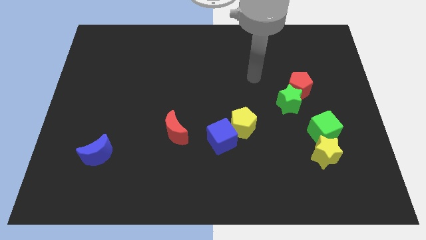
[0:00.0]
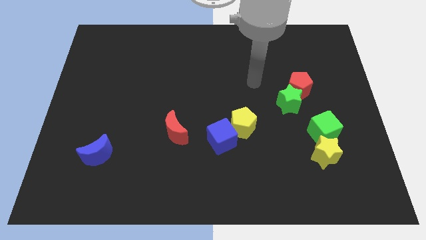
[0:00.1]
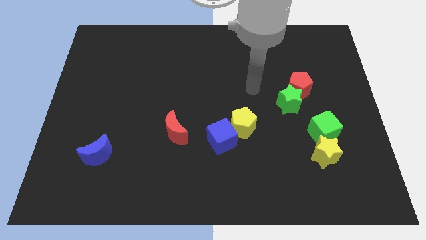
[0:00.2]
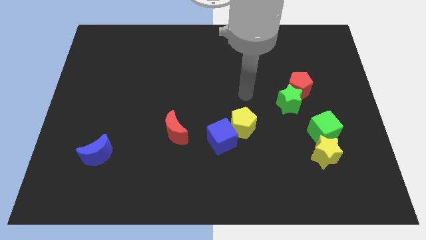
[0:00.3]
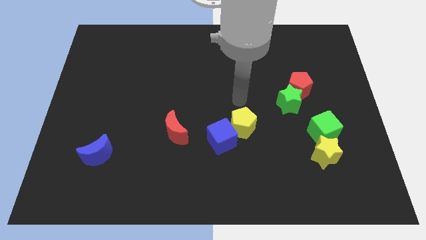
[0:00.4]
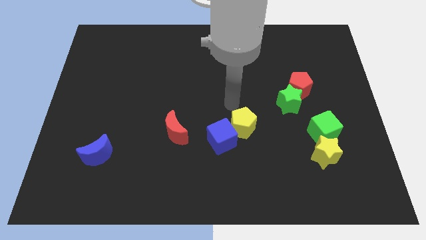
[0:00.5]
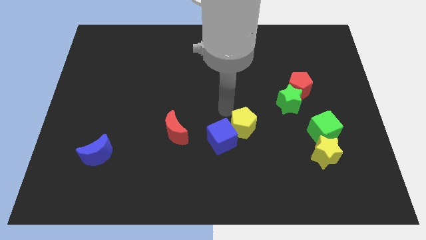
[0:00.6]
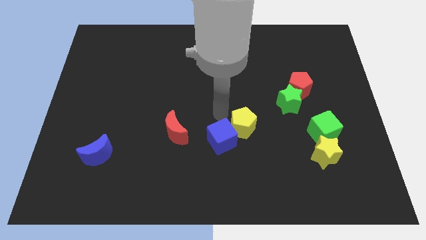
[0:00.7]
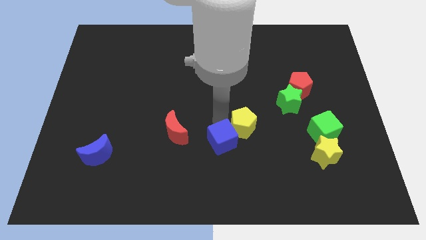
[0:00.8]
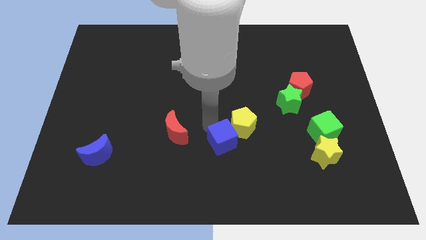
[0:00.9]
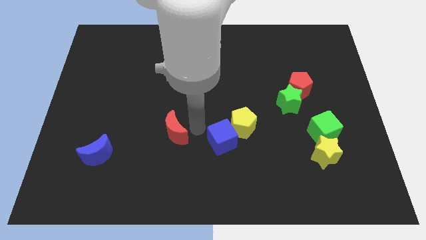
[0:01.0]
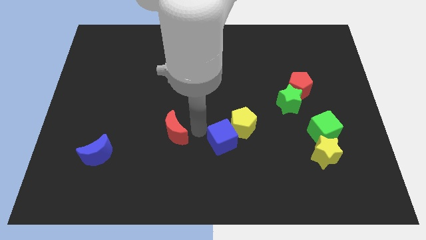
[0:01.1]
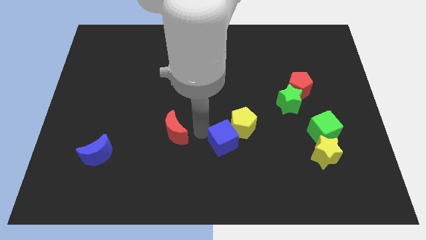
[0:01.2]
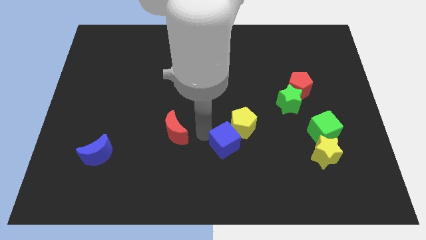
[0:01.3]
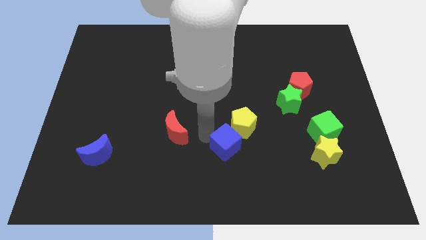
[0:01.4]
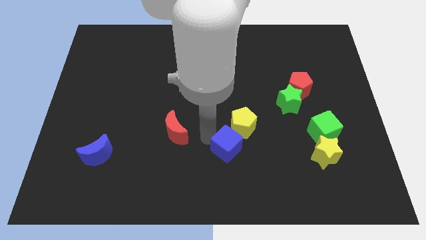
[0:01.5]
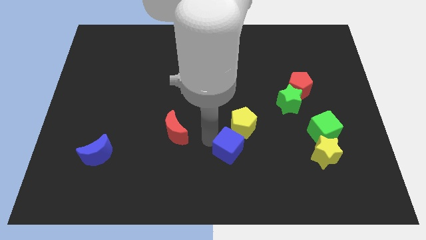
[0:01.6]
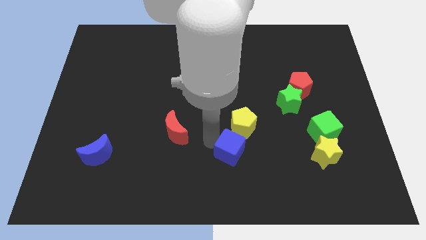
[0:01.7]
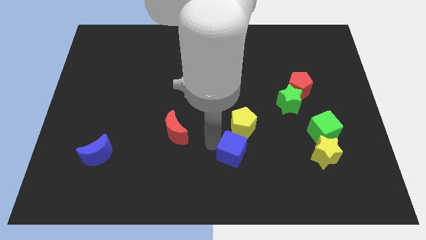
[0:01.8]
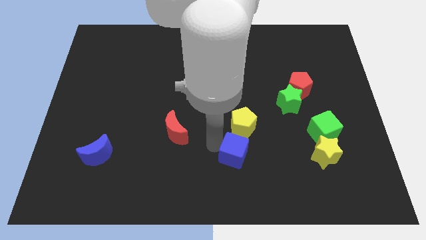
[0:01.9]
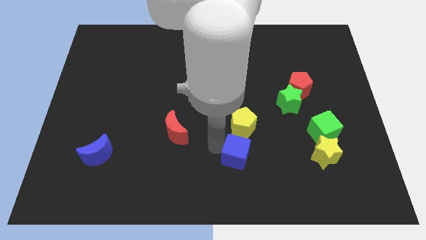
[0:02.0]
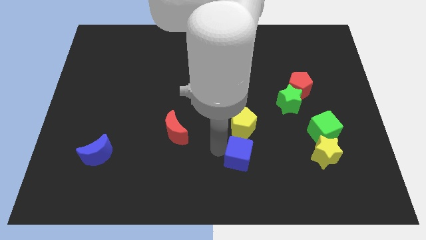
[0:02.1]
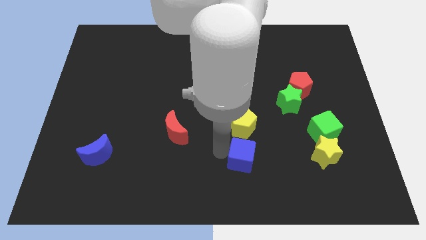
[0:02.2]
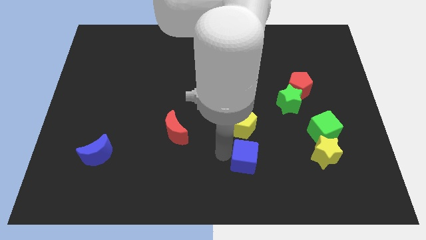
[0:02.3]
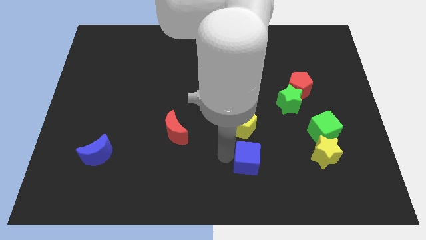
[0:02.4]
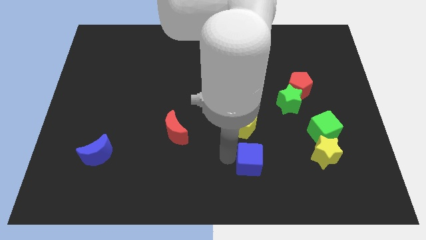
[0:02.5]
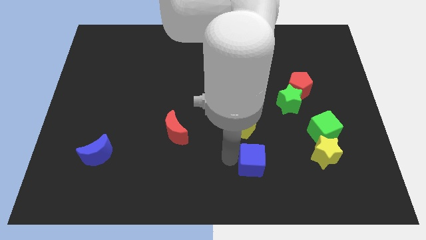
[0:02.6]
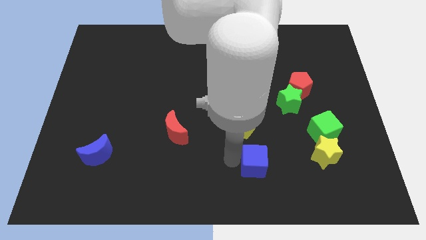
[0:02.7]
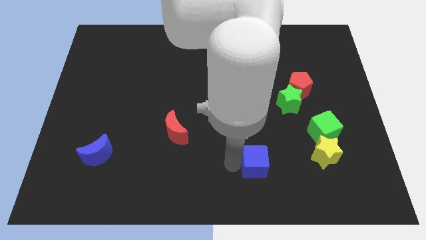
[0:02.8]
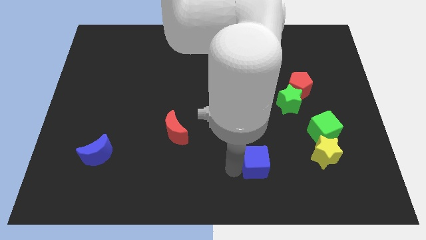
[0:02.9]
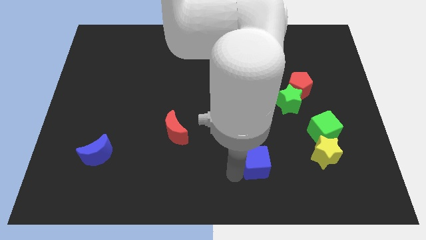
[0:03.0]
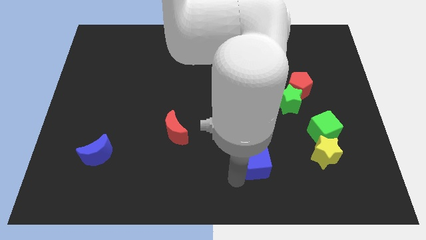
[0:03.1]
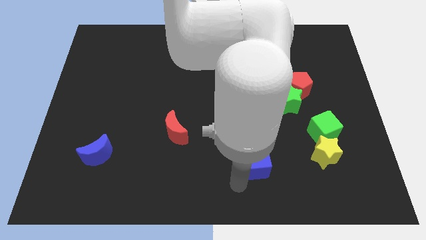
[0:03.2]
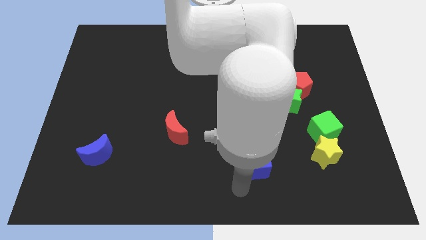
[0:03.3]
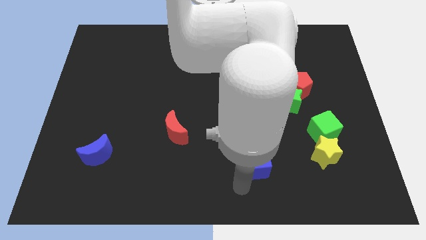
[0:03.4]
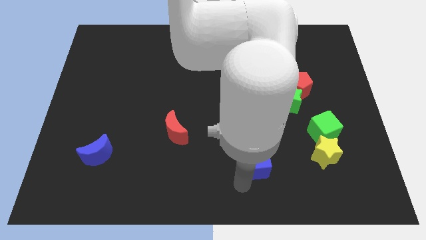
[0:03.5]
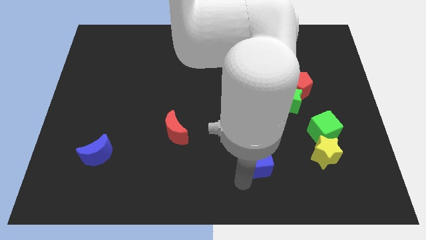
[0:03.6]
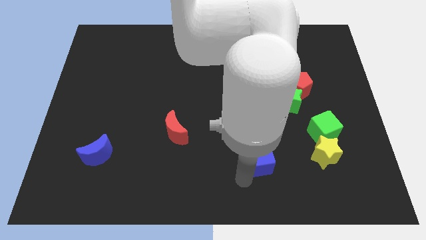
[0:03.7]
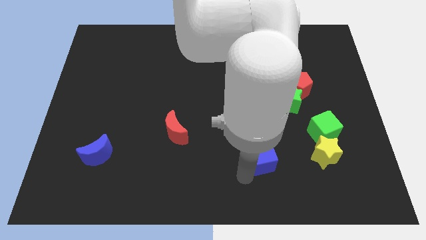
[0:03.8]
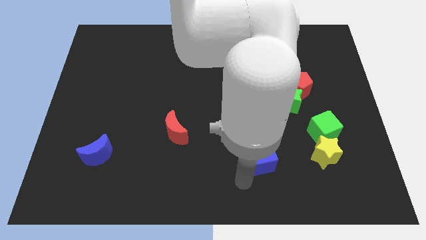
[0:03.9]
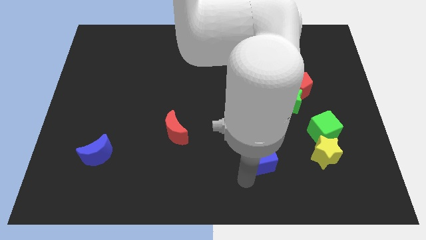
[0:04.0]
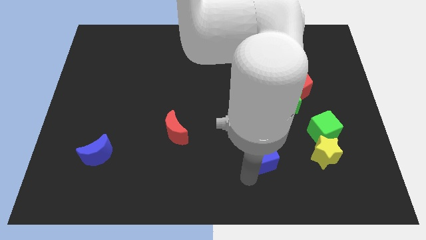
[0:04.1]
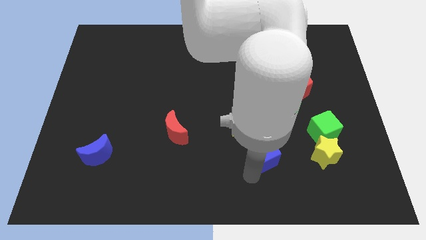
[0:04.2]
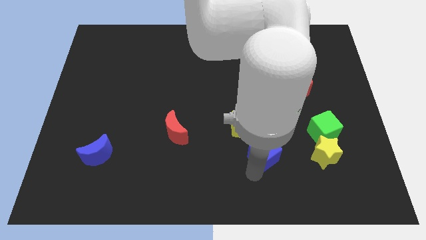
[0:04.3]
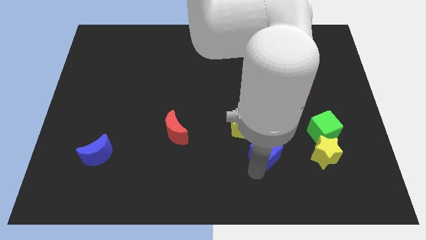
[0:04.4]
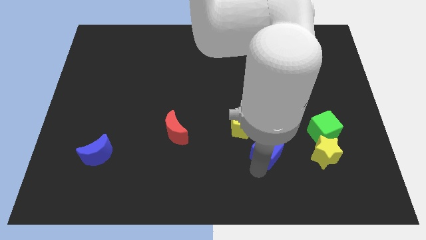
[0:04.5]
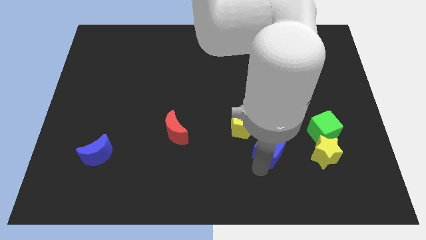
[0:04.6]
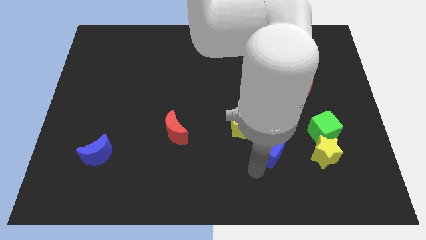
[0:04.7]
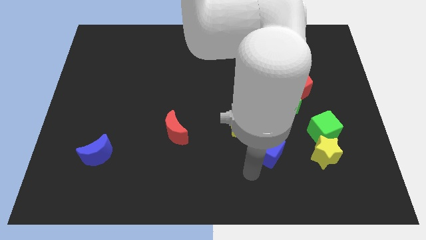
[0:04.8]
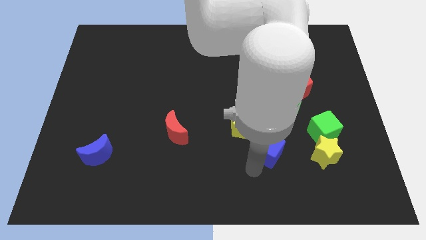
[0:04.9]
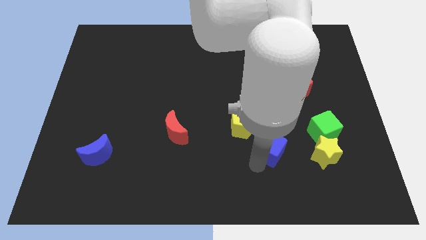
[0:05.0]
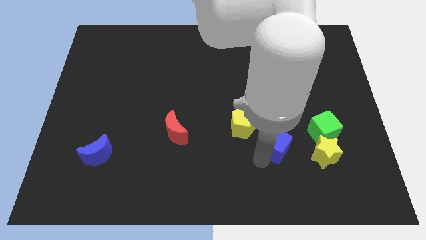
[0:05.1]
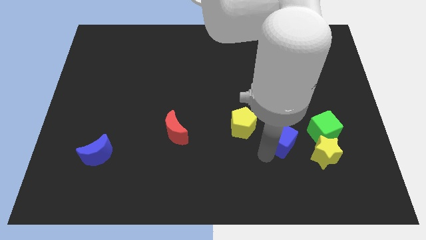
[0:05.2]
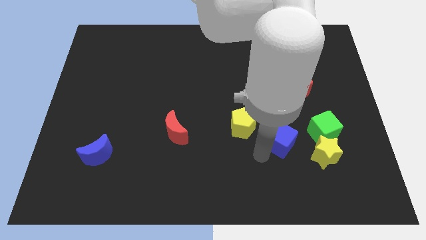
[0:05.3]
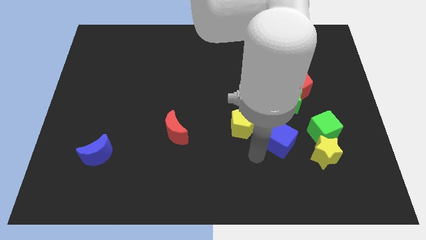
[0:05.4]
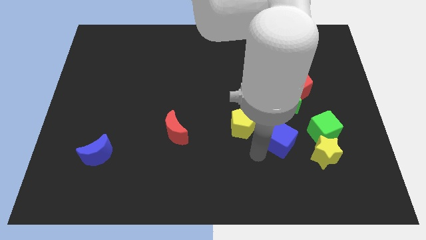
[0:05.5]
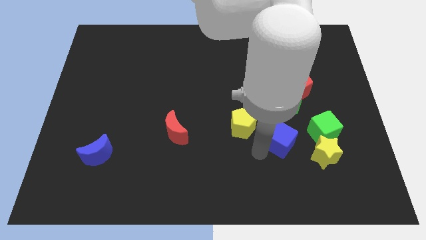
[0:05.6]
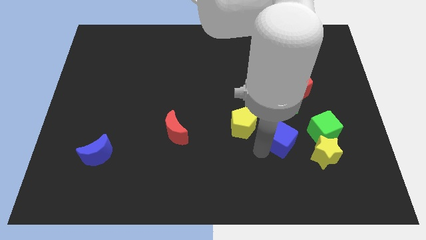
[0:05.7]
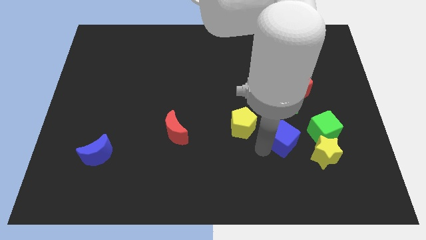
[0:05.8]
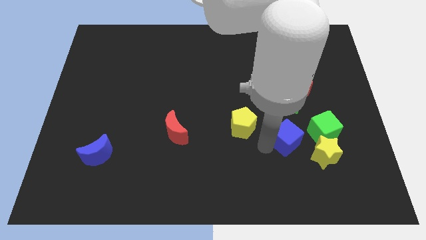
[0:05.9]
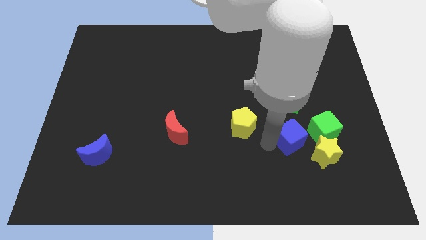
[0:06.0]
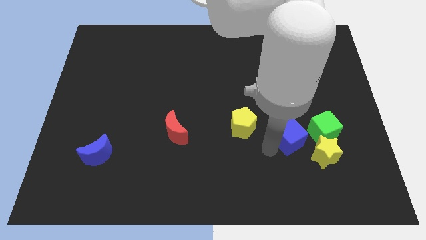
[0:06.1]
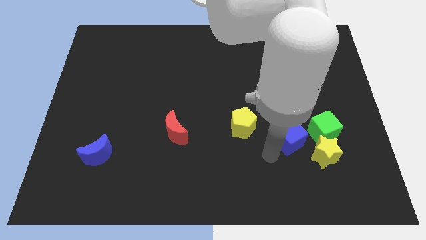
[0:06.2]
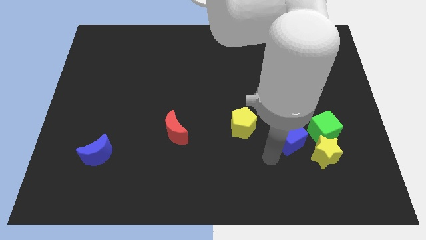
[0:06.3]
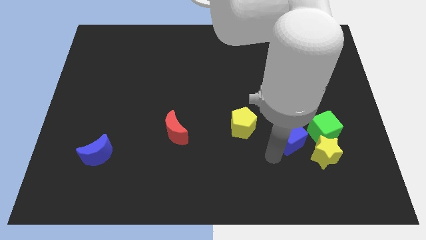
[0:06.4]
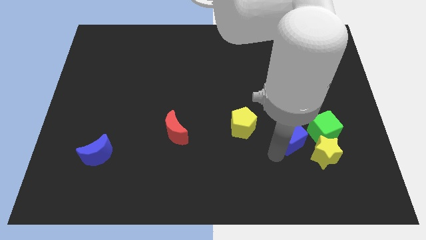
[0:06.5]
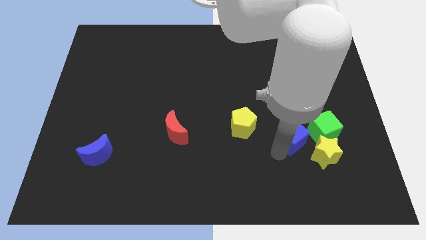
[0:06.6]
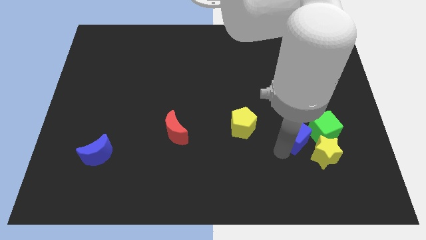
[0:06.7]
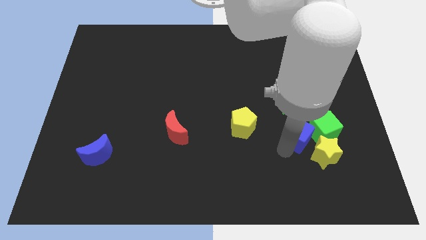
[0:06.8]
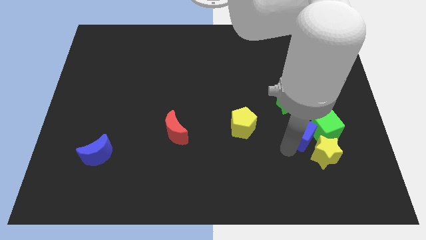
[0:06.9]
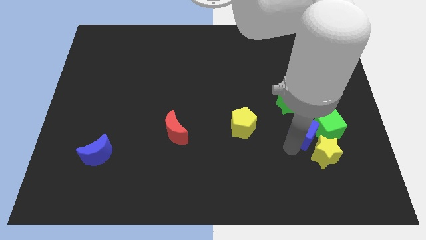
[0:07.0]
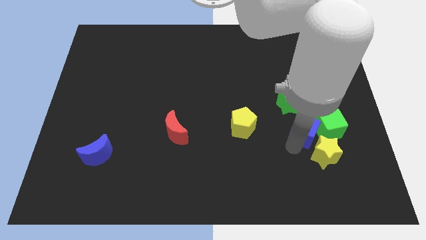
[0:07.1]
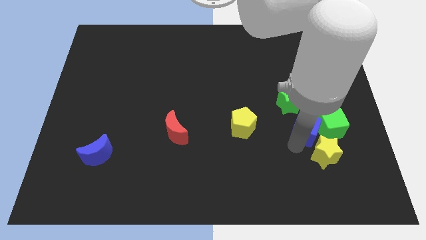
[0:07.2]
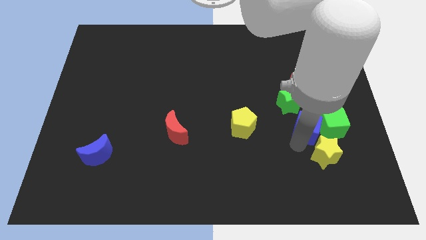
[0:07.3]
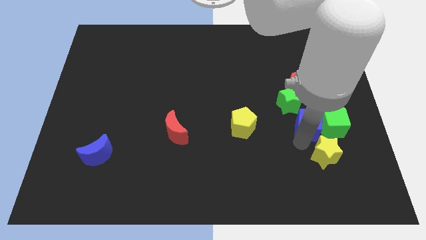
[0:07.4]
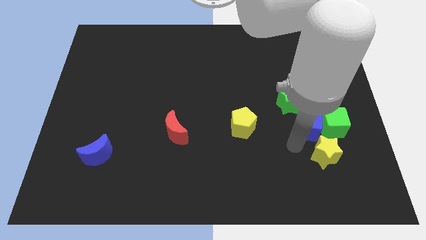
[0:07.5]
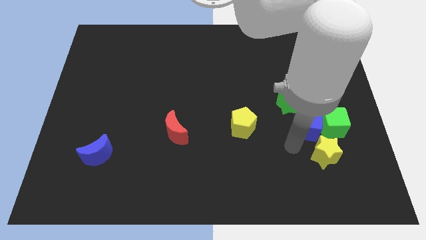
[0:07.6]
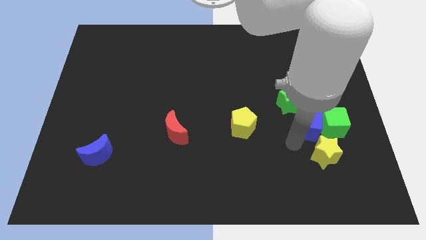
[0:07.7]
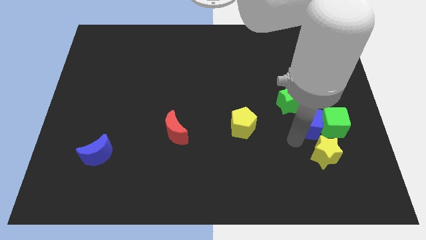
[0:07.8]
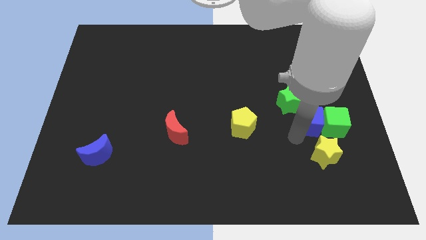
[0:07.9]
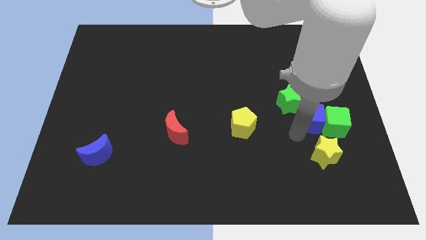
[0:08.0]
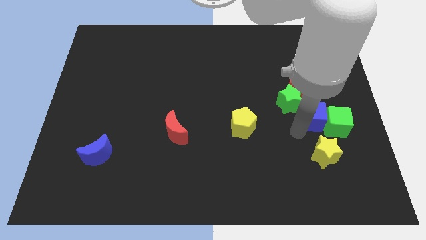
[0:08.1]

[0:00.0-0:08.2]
move the blue cube to the bottom right of the red pentagon
